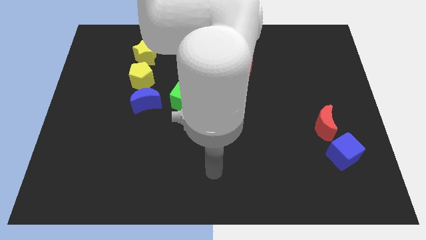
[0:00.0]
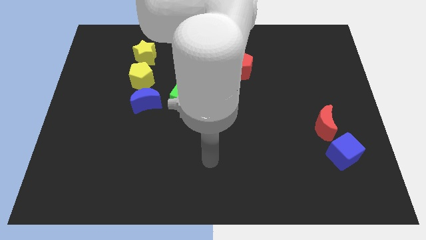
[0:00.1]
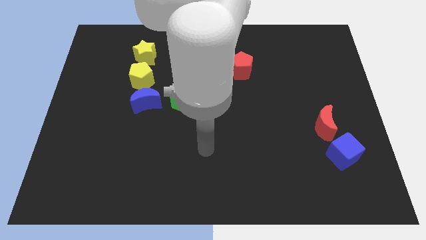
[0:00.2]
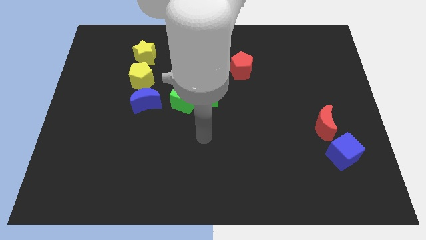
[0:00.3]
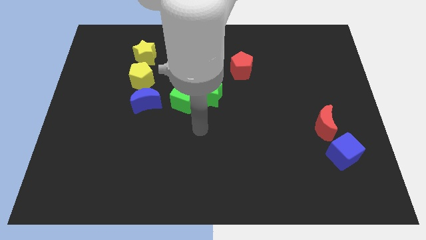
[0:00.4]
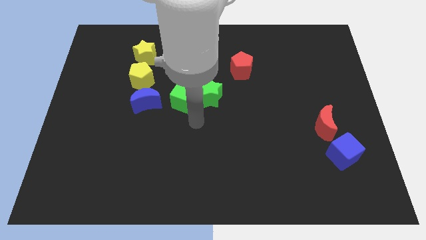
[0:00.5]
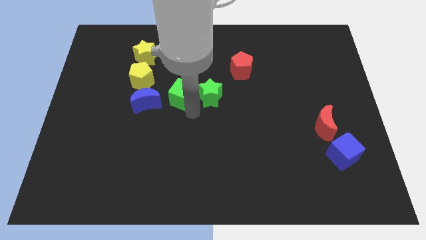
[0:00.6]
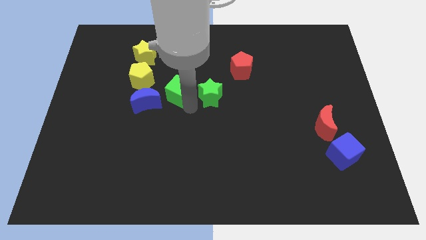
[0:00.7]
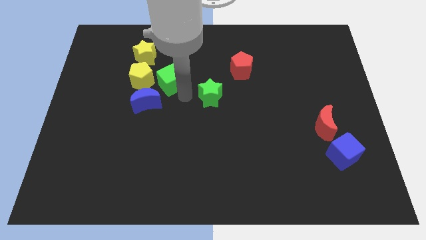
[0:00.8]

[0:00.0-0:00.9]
separate the green star from the green cube

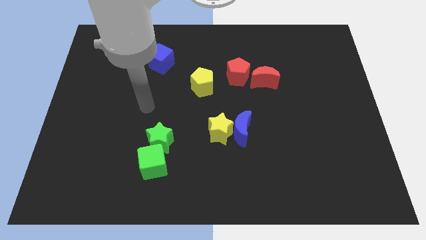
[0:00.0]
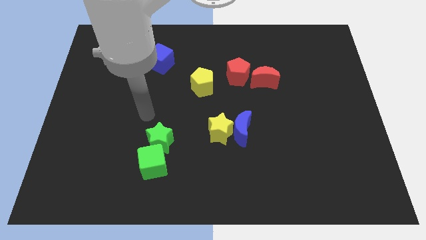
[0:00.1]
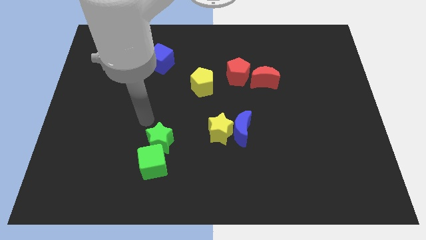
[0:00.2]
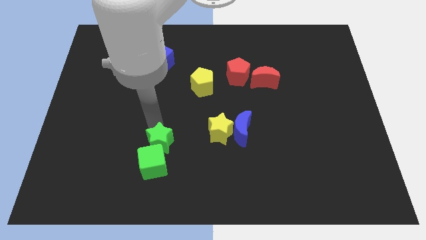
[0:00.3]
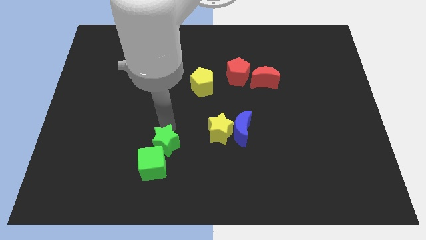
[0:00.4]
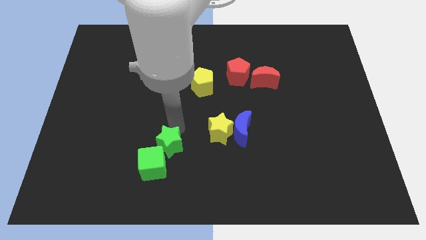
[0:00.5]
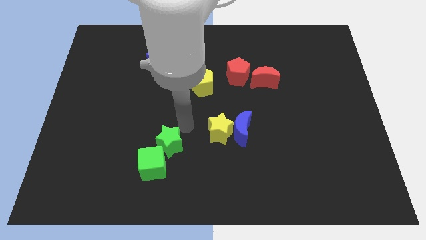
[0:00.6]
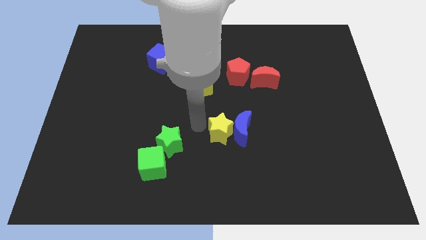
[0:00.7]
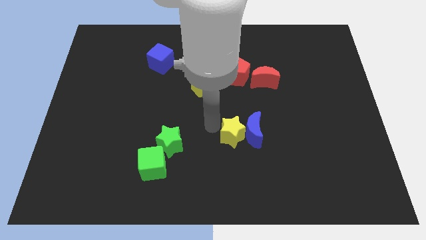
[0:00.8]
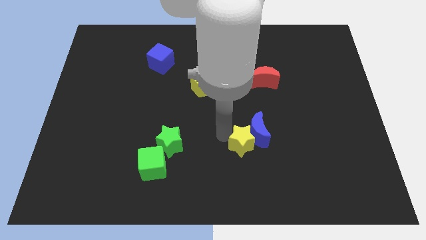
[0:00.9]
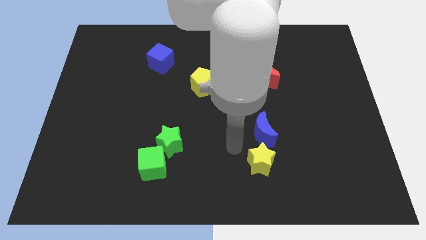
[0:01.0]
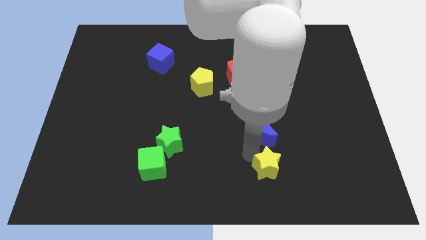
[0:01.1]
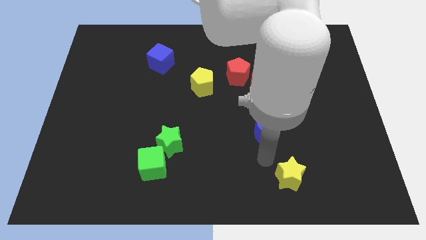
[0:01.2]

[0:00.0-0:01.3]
separate the blue moon from the yellow star

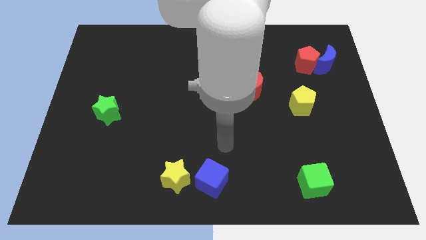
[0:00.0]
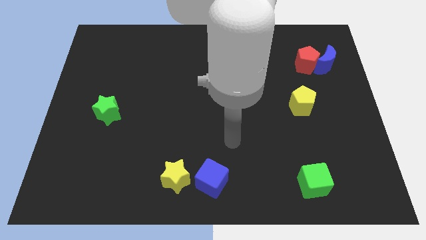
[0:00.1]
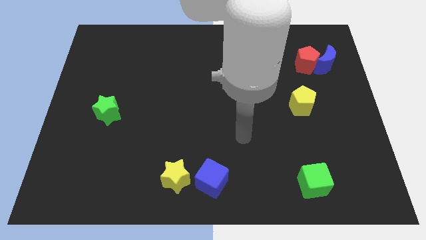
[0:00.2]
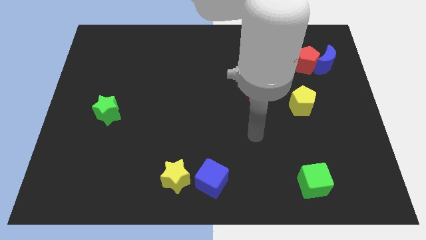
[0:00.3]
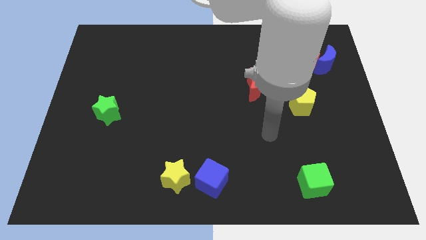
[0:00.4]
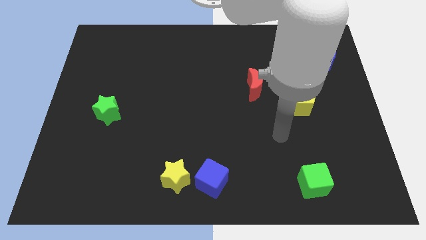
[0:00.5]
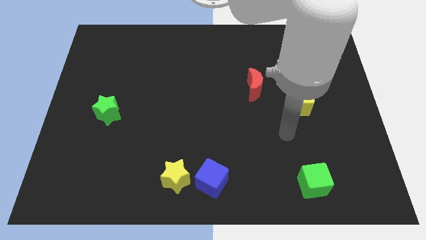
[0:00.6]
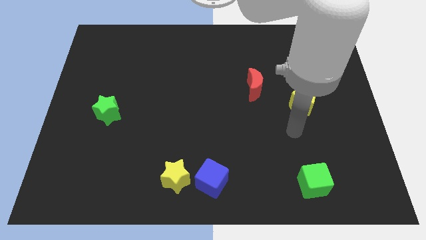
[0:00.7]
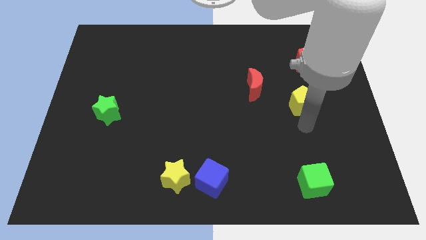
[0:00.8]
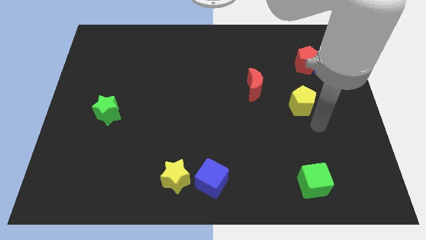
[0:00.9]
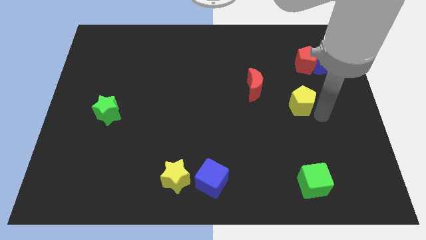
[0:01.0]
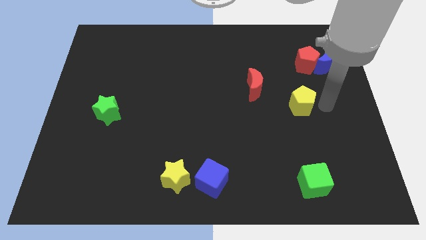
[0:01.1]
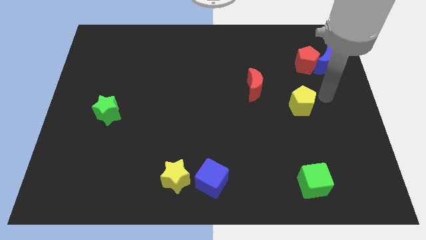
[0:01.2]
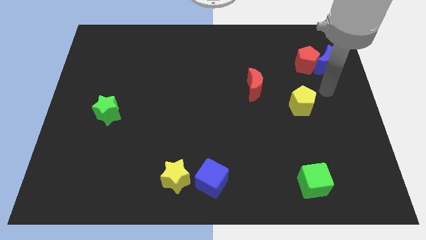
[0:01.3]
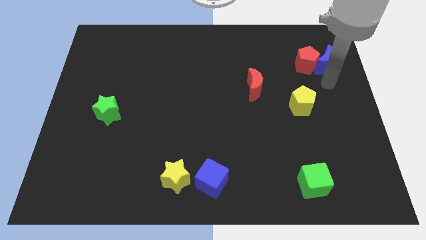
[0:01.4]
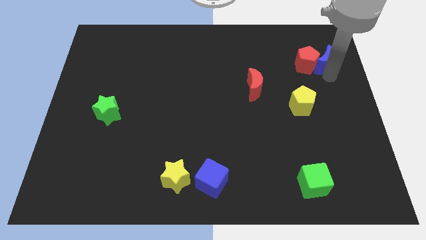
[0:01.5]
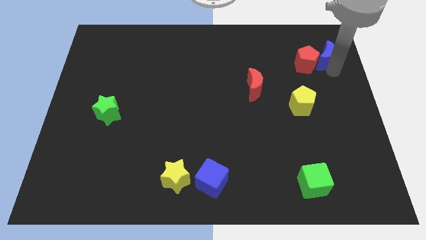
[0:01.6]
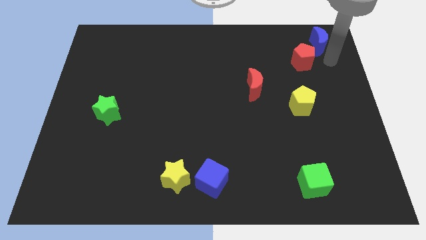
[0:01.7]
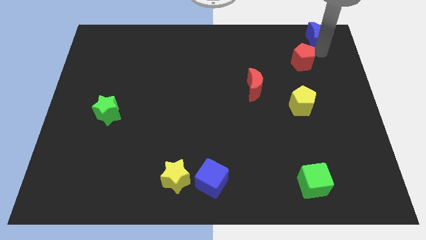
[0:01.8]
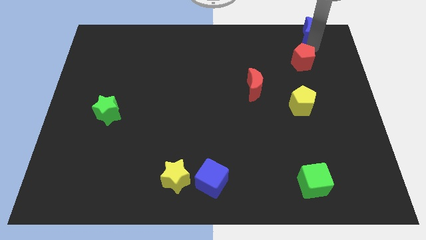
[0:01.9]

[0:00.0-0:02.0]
separate the red pentagon from the blue moon

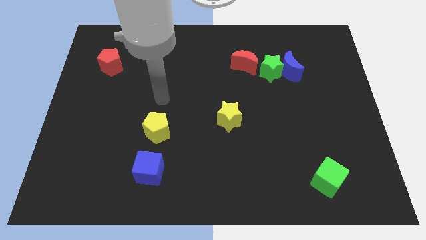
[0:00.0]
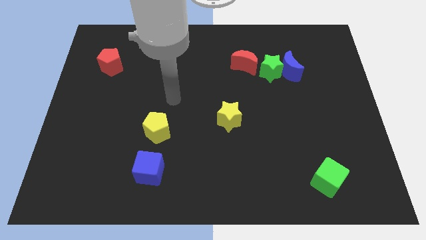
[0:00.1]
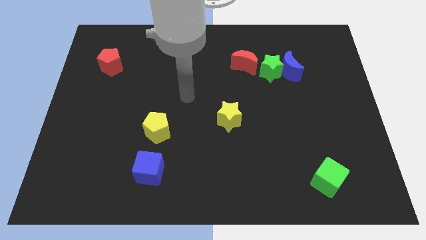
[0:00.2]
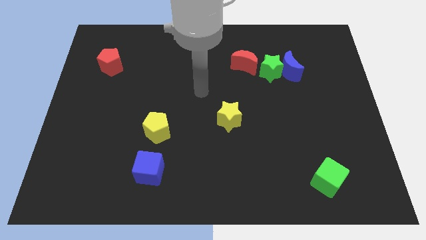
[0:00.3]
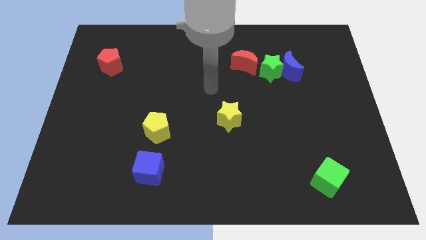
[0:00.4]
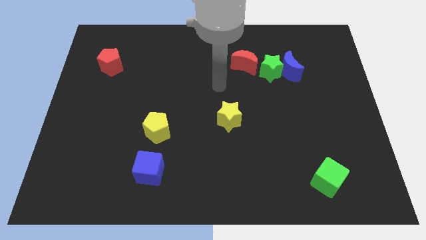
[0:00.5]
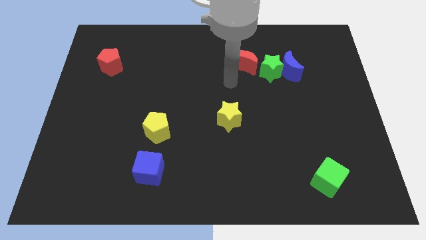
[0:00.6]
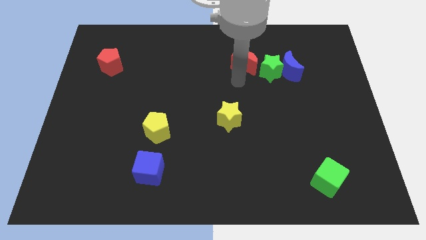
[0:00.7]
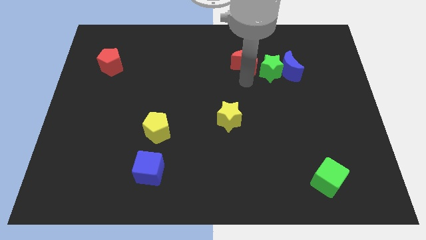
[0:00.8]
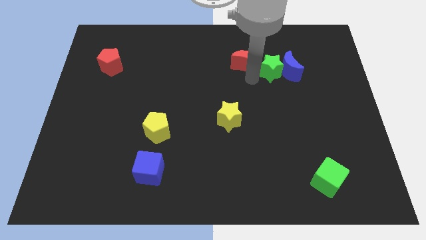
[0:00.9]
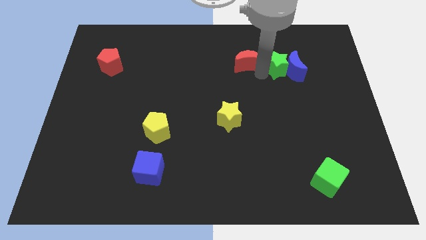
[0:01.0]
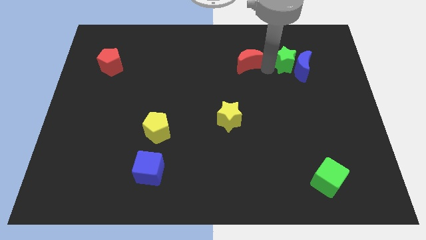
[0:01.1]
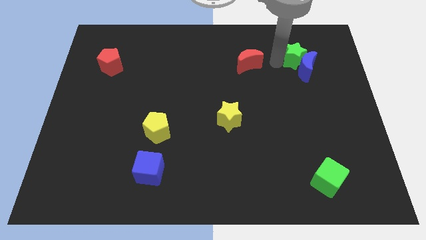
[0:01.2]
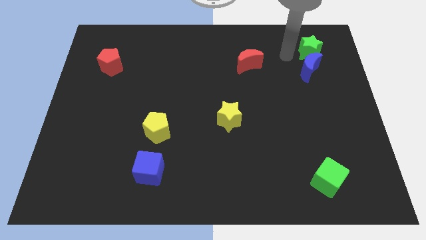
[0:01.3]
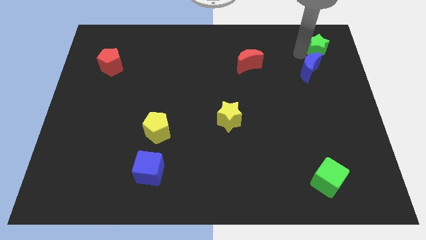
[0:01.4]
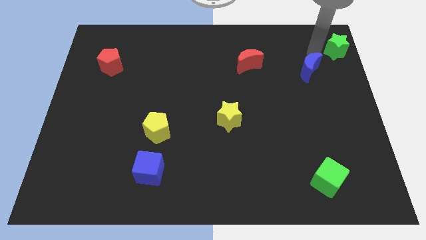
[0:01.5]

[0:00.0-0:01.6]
move the blue moon away from the green star

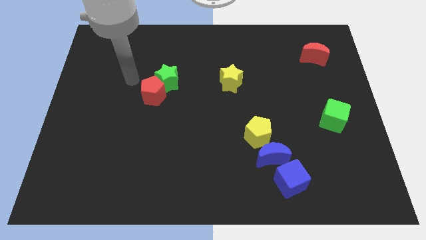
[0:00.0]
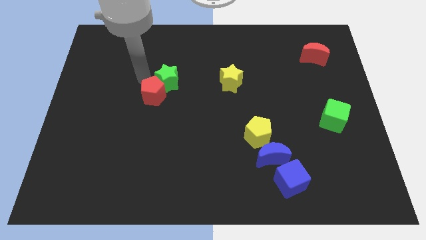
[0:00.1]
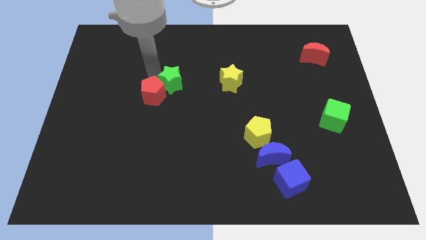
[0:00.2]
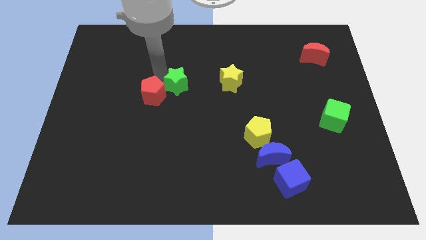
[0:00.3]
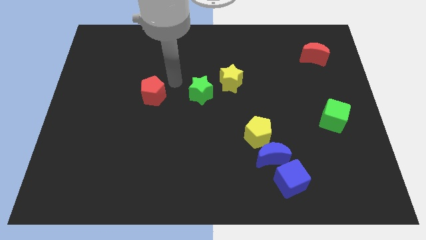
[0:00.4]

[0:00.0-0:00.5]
pull the red pentagon apart from the green star

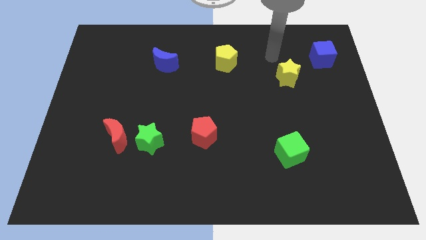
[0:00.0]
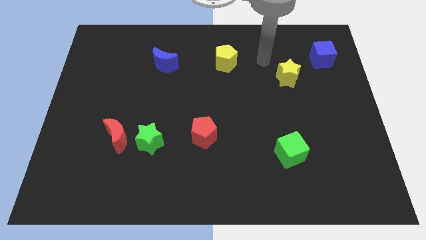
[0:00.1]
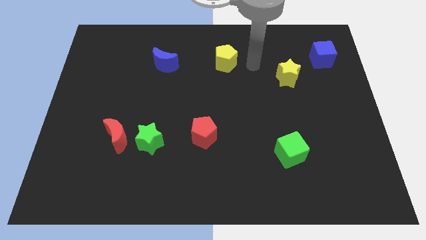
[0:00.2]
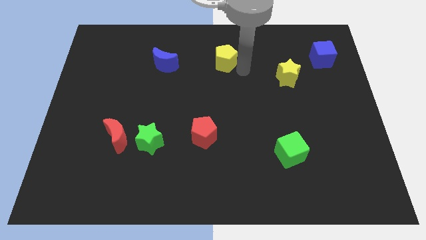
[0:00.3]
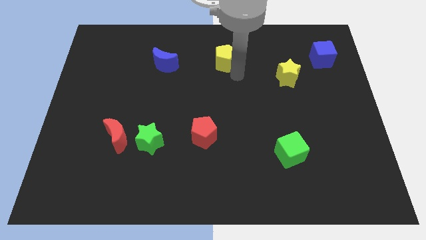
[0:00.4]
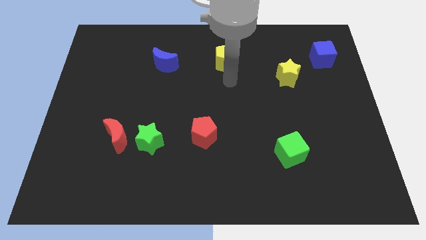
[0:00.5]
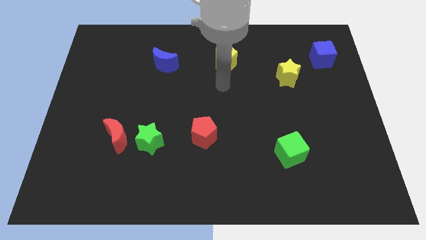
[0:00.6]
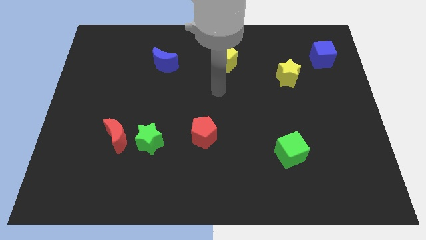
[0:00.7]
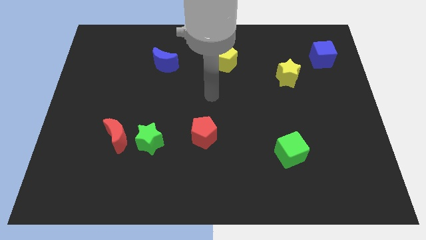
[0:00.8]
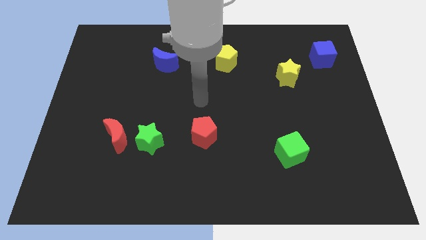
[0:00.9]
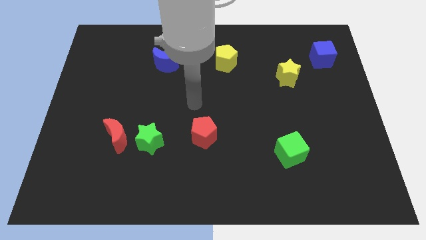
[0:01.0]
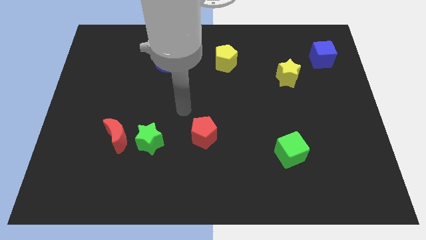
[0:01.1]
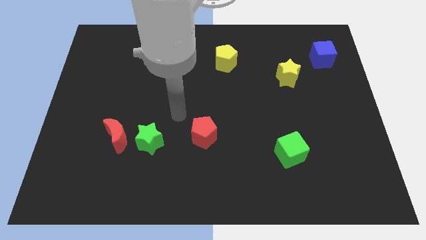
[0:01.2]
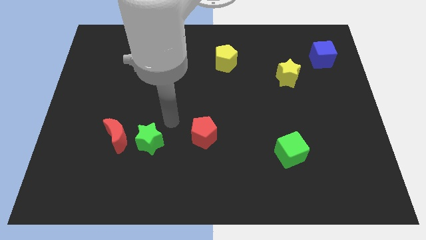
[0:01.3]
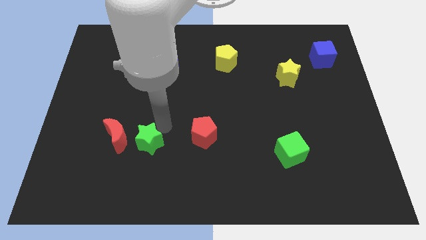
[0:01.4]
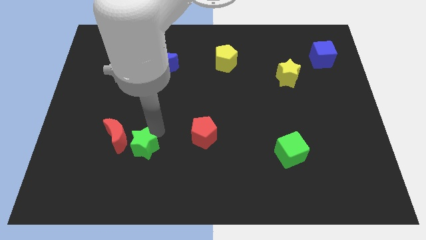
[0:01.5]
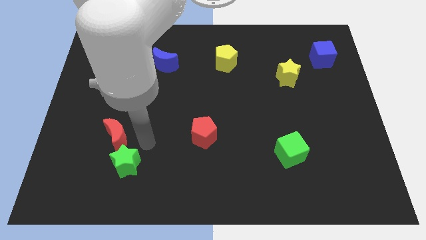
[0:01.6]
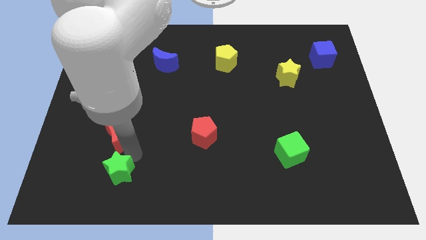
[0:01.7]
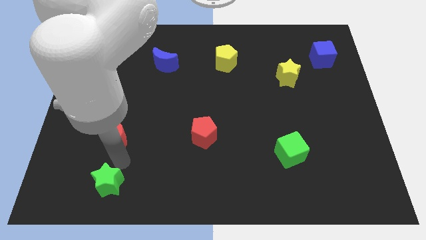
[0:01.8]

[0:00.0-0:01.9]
move the red moon away from the green star

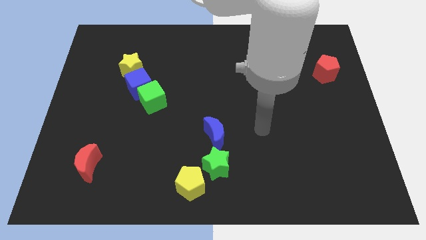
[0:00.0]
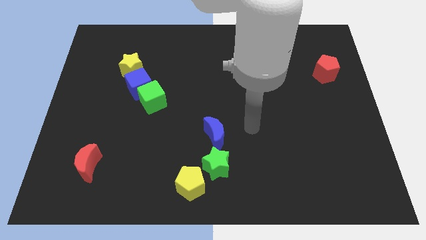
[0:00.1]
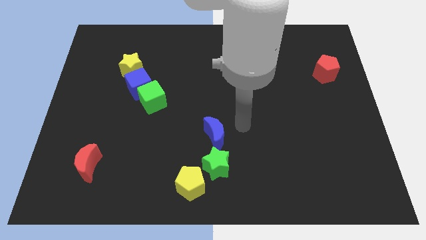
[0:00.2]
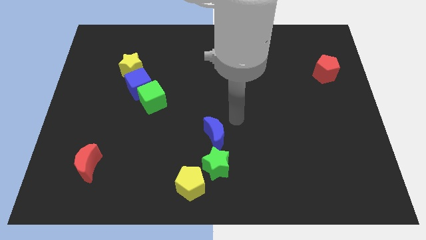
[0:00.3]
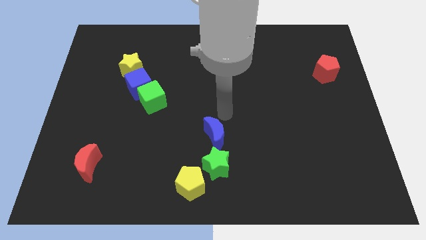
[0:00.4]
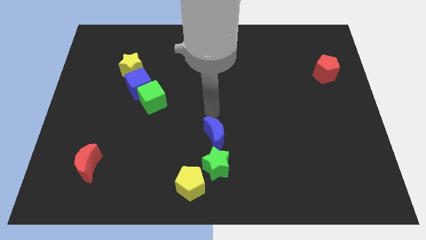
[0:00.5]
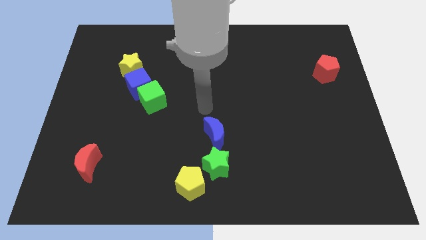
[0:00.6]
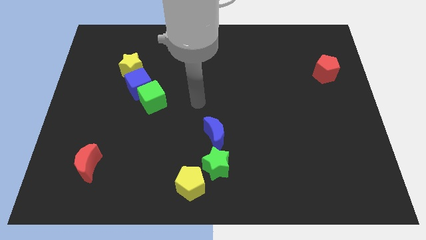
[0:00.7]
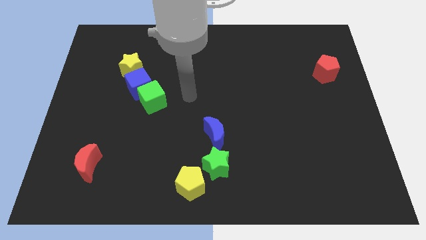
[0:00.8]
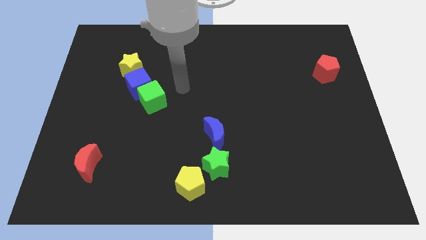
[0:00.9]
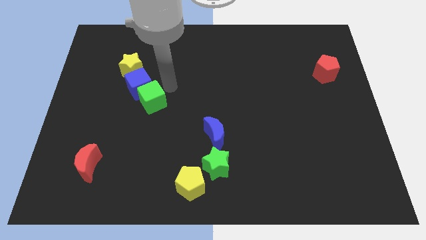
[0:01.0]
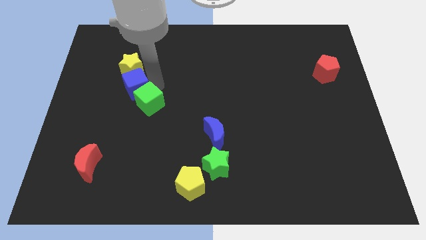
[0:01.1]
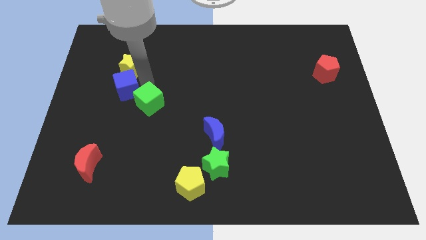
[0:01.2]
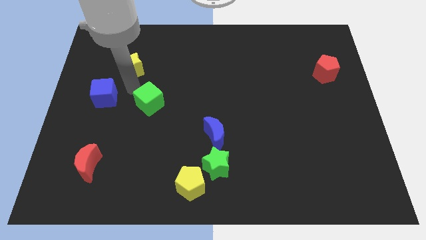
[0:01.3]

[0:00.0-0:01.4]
separate the green cube from the blue cube
